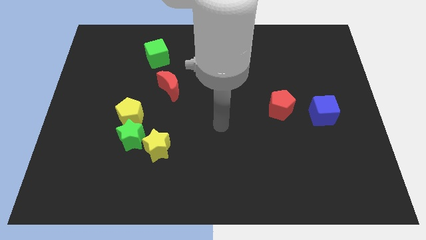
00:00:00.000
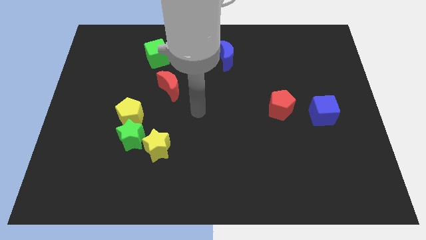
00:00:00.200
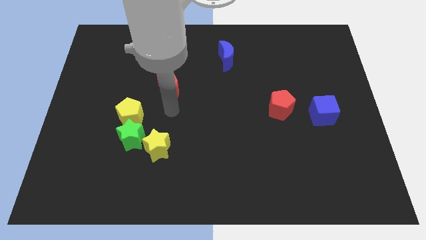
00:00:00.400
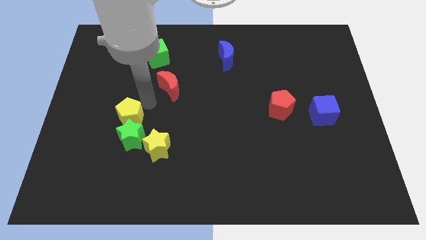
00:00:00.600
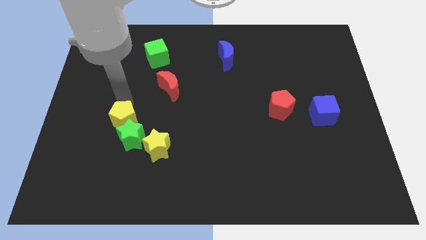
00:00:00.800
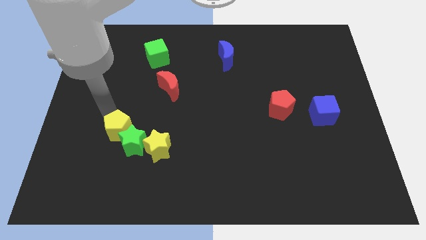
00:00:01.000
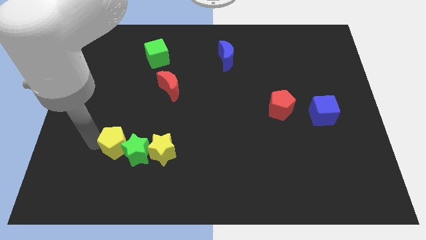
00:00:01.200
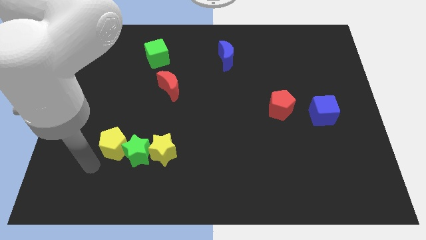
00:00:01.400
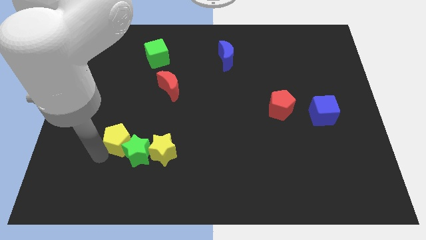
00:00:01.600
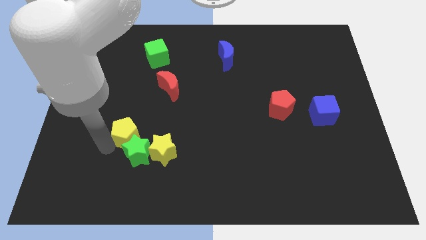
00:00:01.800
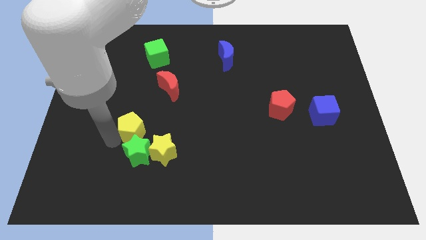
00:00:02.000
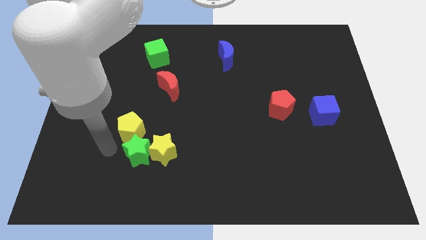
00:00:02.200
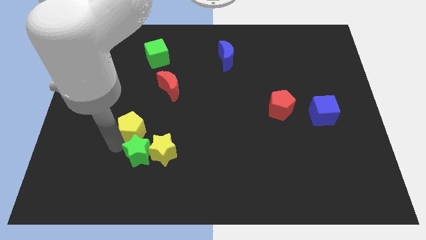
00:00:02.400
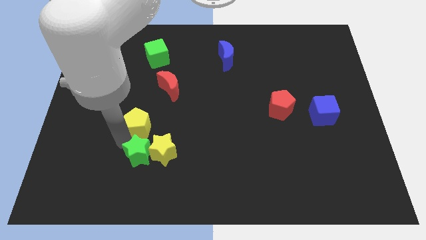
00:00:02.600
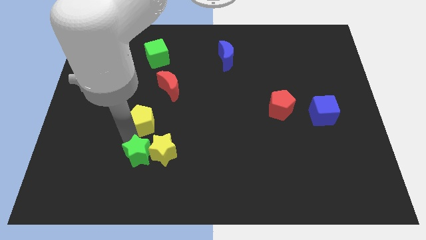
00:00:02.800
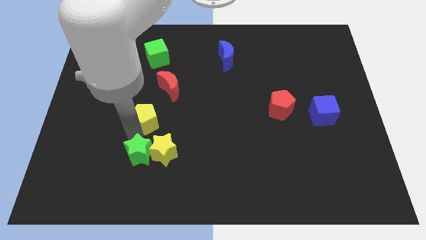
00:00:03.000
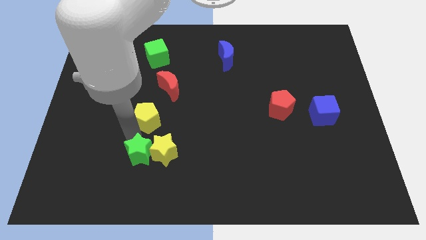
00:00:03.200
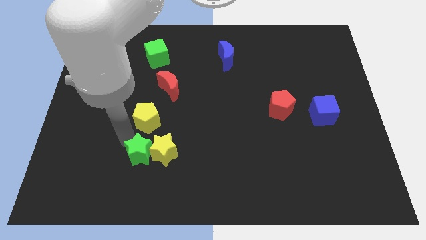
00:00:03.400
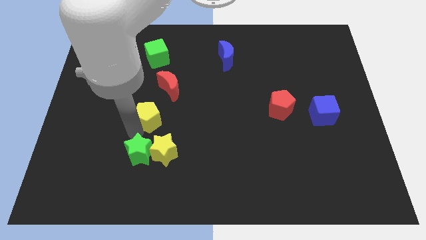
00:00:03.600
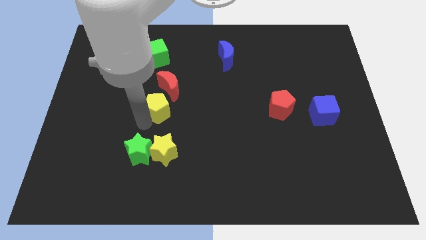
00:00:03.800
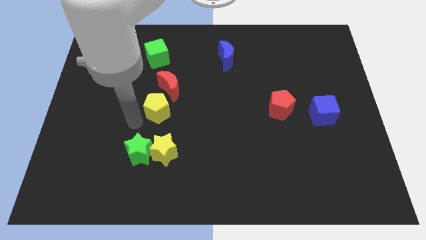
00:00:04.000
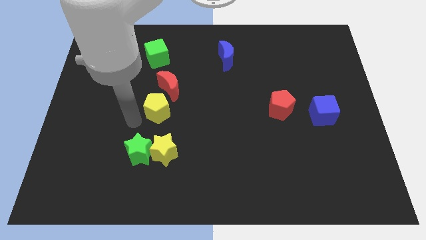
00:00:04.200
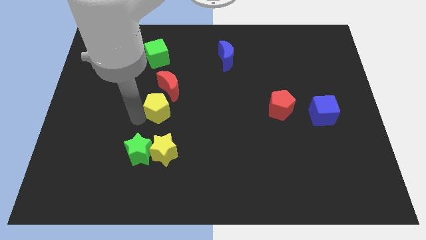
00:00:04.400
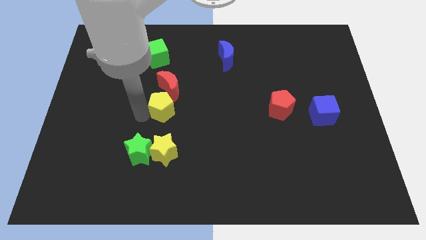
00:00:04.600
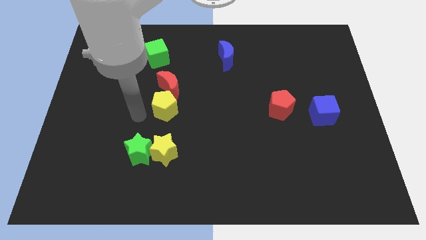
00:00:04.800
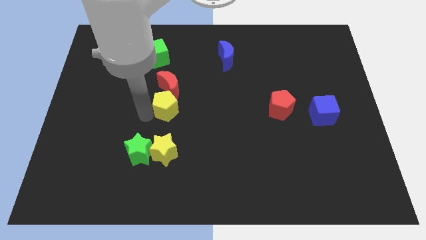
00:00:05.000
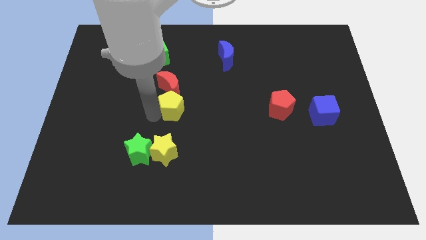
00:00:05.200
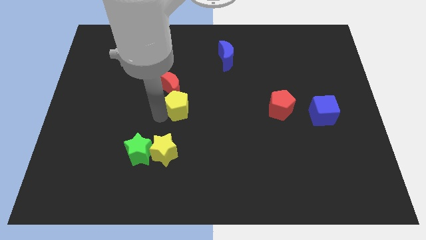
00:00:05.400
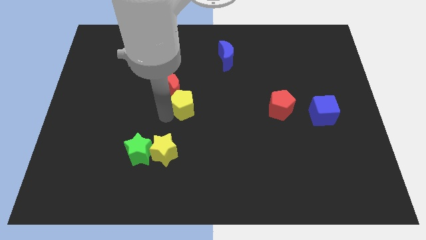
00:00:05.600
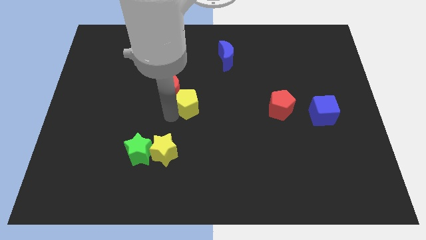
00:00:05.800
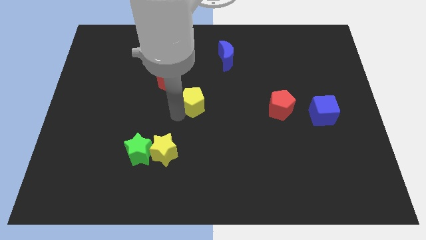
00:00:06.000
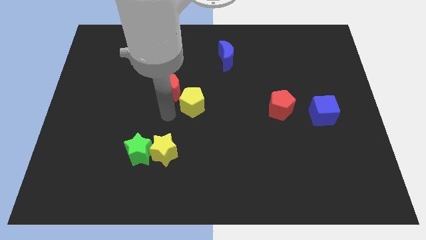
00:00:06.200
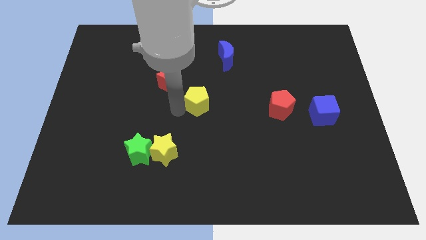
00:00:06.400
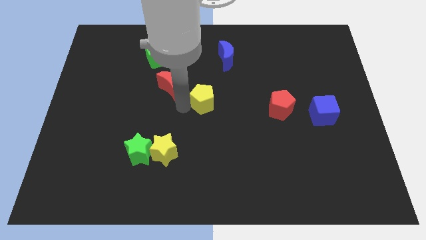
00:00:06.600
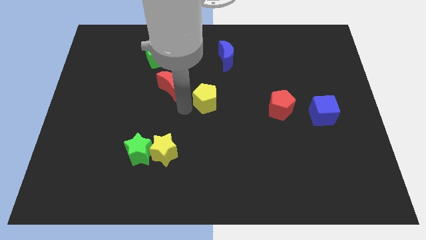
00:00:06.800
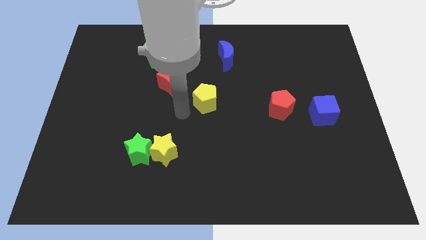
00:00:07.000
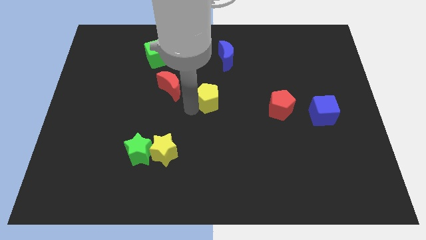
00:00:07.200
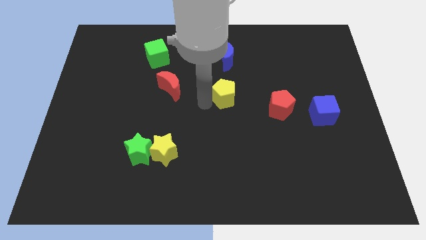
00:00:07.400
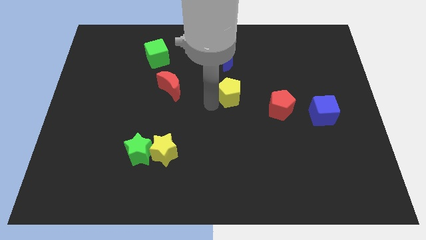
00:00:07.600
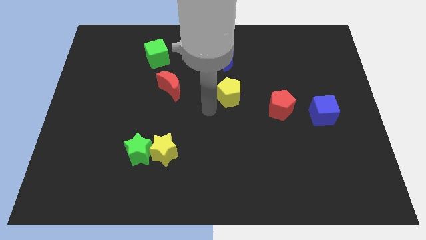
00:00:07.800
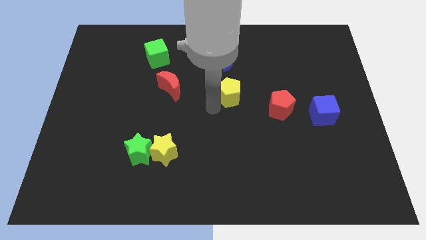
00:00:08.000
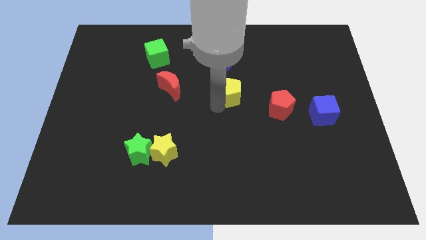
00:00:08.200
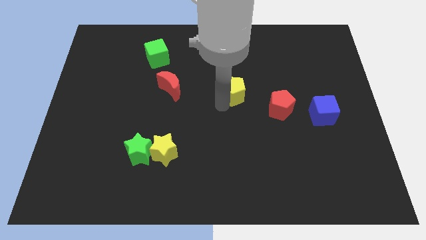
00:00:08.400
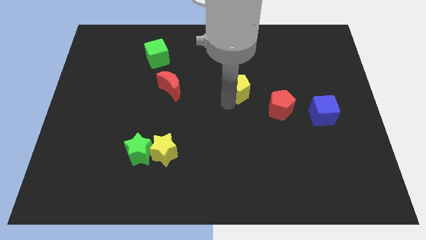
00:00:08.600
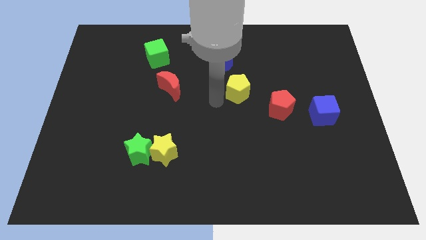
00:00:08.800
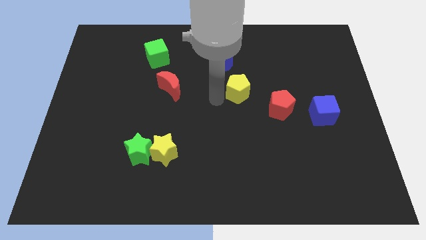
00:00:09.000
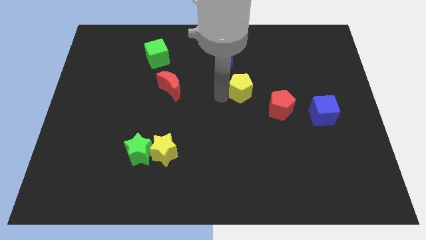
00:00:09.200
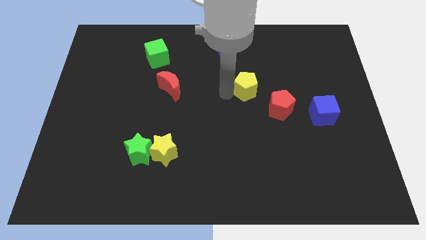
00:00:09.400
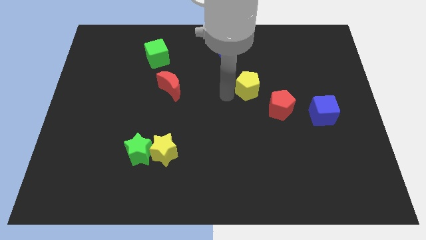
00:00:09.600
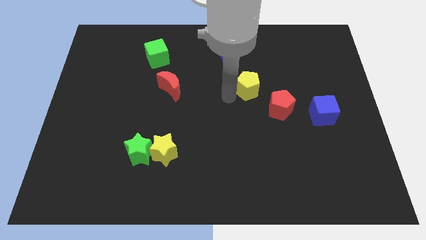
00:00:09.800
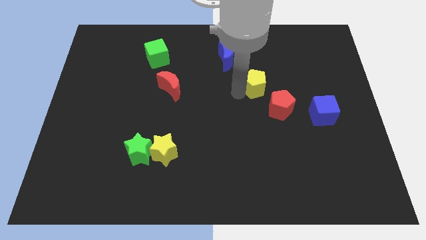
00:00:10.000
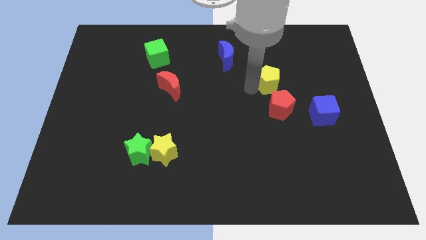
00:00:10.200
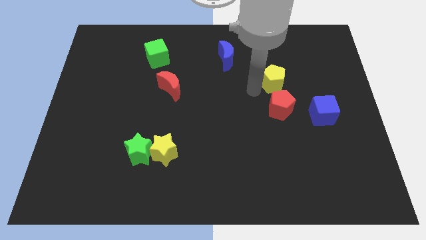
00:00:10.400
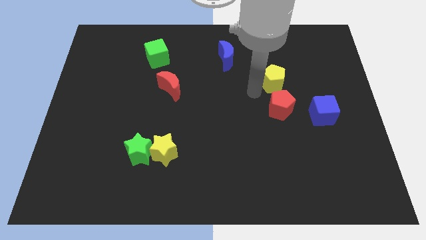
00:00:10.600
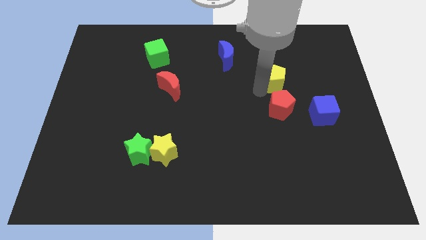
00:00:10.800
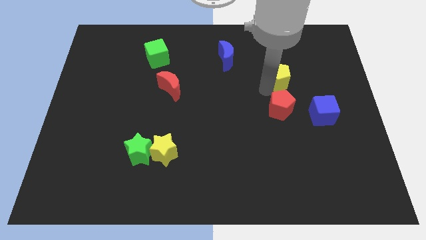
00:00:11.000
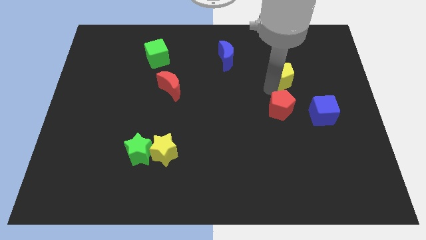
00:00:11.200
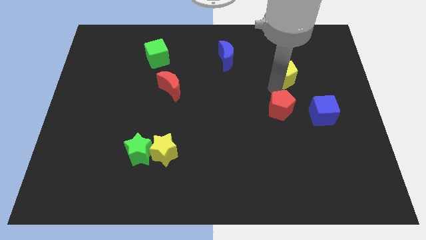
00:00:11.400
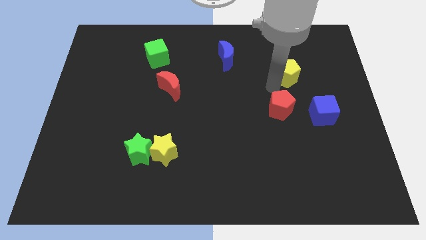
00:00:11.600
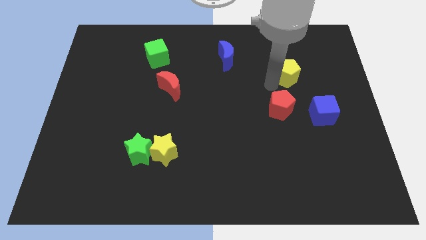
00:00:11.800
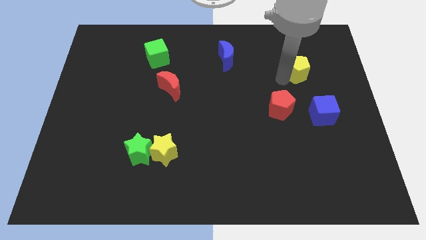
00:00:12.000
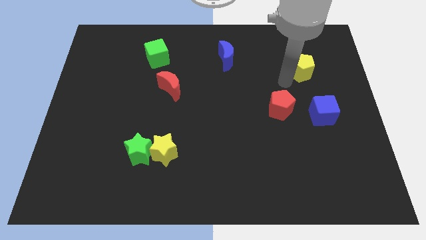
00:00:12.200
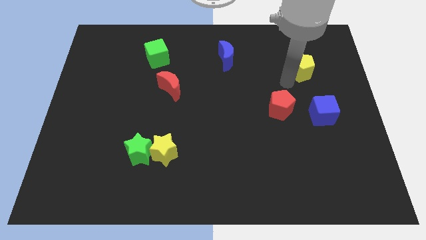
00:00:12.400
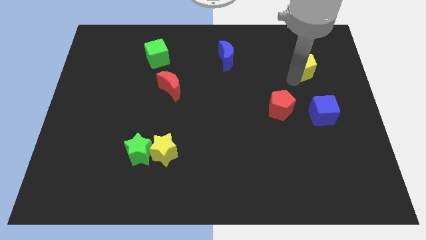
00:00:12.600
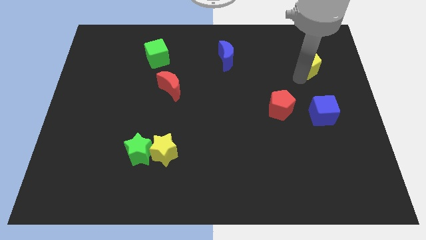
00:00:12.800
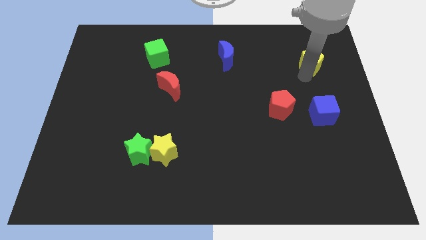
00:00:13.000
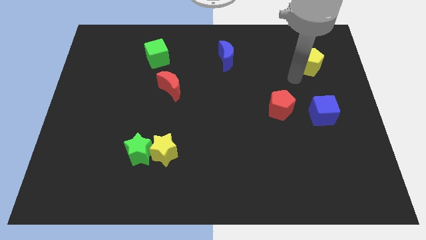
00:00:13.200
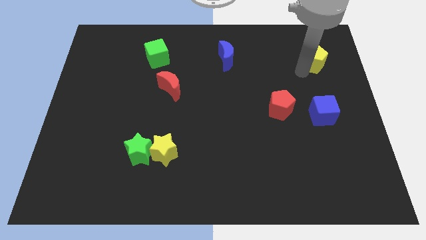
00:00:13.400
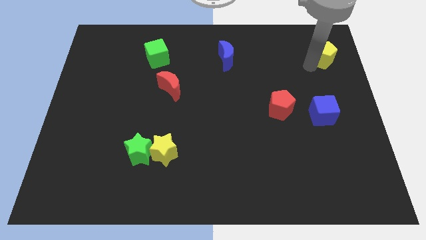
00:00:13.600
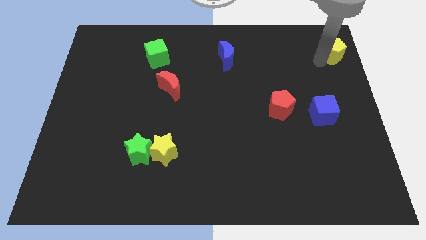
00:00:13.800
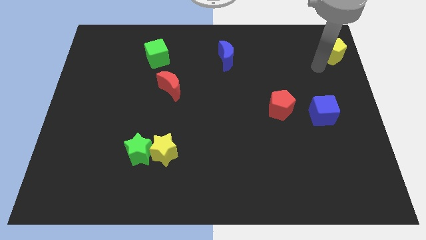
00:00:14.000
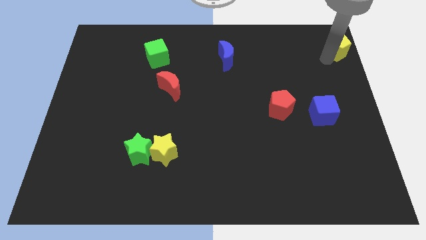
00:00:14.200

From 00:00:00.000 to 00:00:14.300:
slide the yellow pentagon to the top right of the board

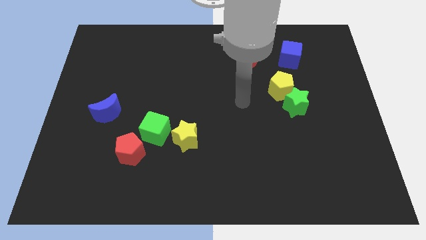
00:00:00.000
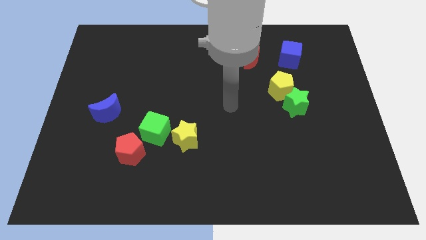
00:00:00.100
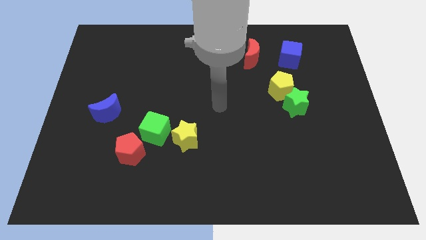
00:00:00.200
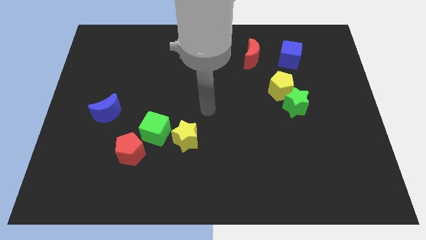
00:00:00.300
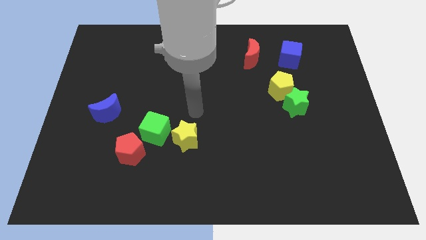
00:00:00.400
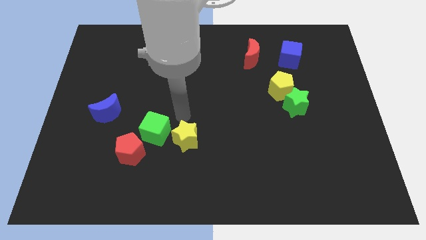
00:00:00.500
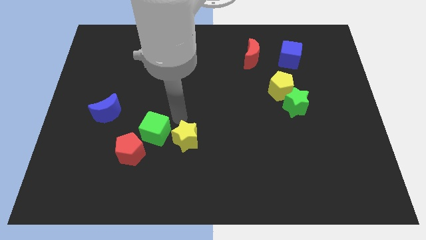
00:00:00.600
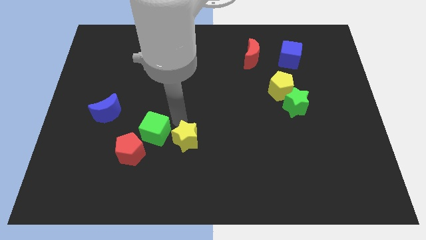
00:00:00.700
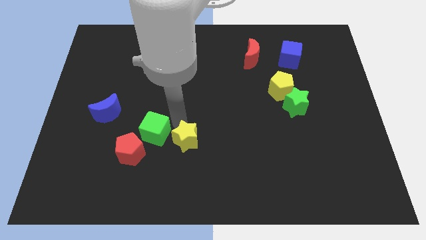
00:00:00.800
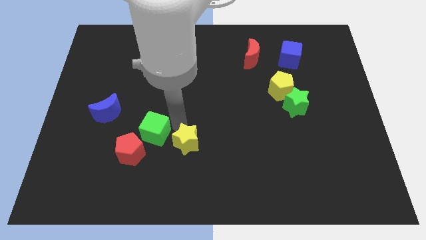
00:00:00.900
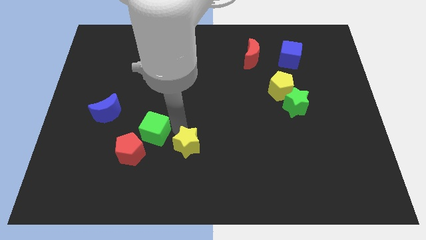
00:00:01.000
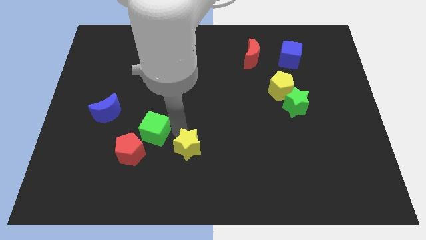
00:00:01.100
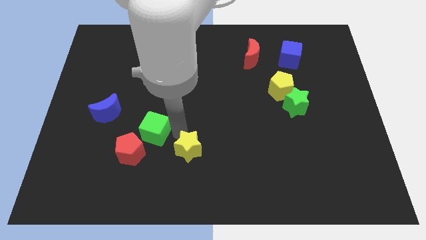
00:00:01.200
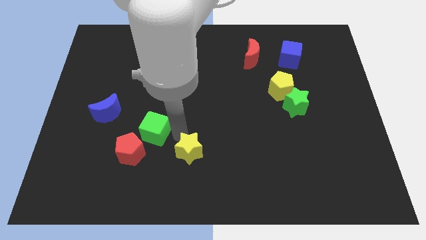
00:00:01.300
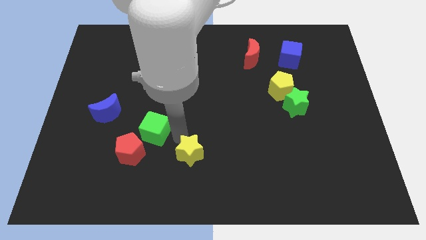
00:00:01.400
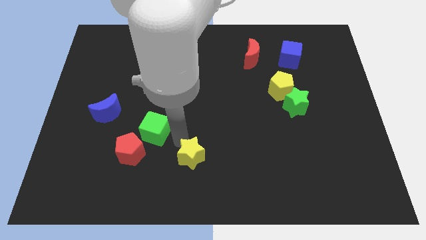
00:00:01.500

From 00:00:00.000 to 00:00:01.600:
put the yellow star to the bottom
